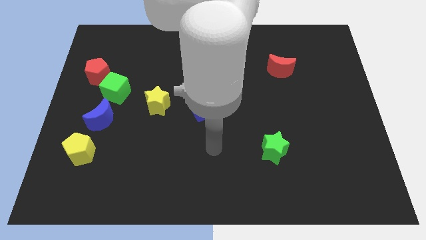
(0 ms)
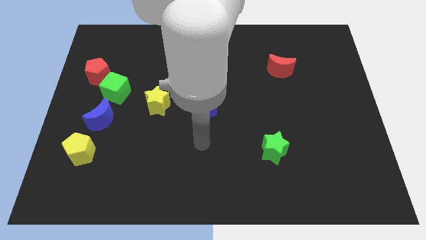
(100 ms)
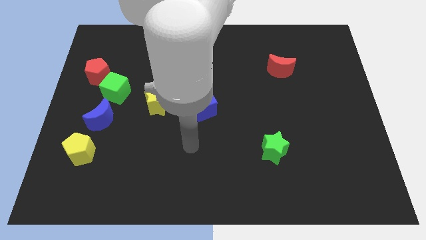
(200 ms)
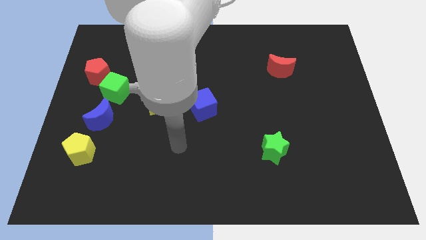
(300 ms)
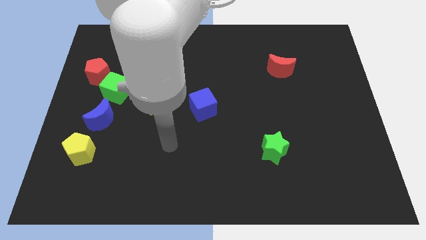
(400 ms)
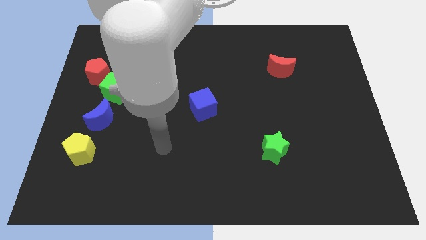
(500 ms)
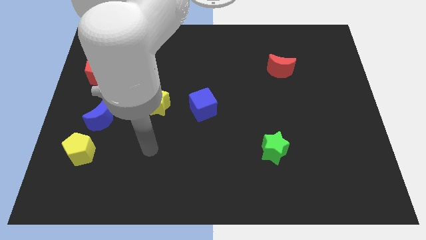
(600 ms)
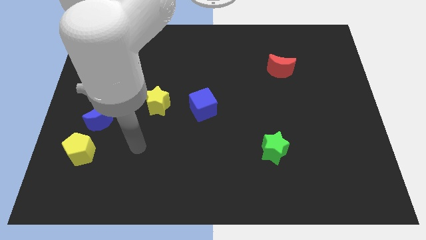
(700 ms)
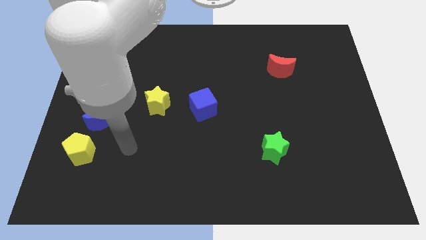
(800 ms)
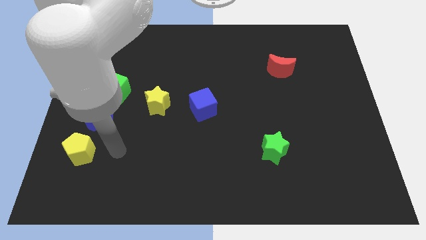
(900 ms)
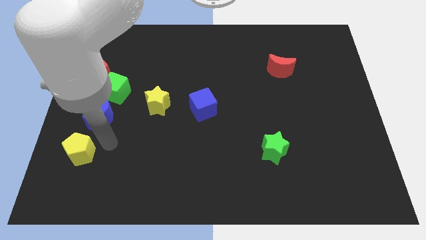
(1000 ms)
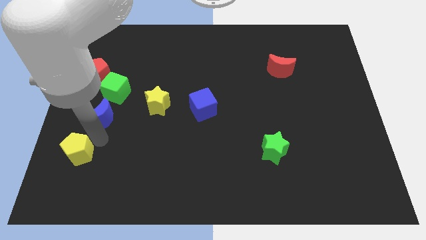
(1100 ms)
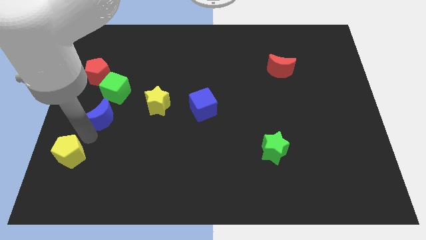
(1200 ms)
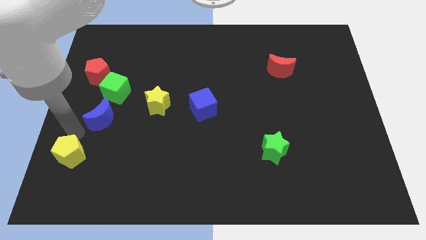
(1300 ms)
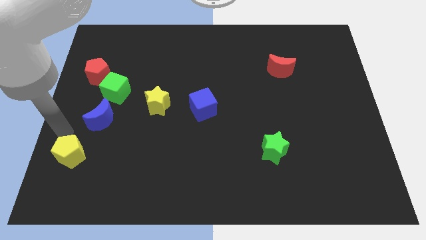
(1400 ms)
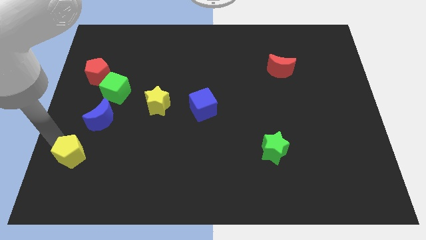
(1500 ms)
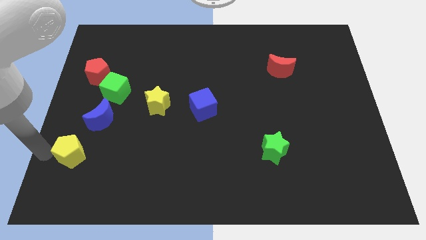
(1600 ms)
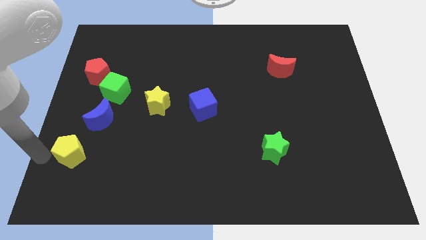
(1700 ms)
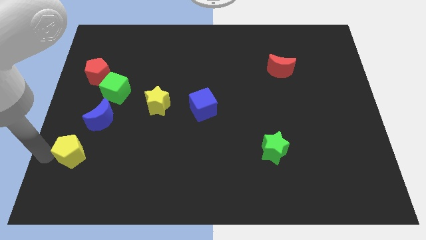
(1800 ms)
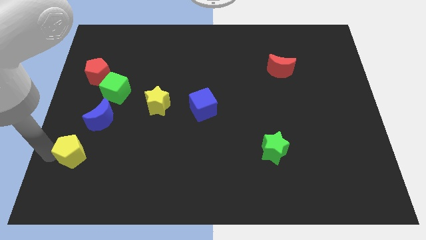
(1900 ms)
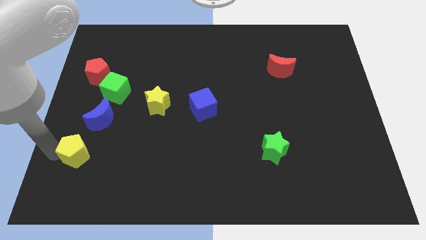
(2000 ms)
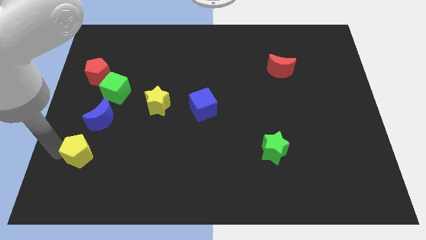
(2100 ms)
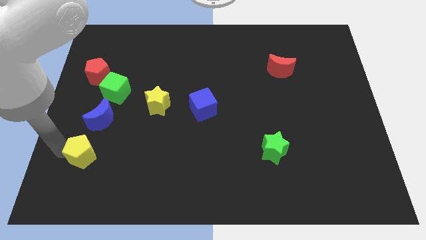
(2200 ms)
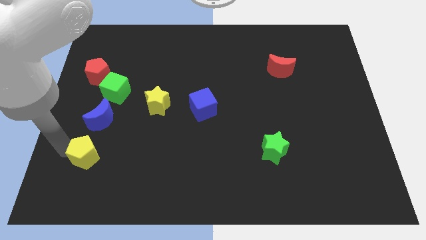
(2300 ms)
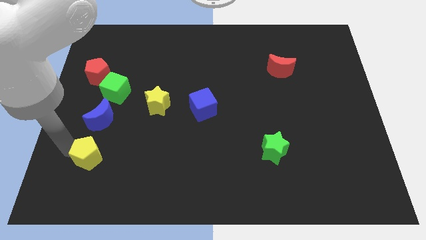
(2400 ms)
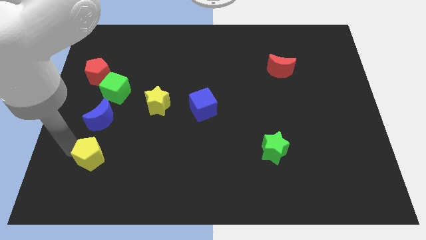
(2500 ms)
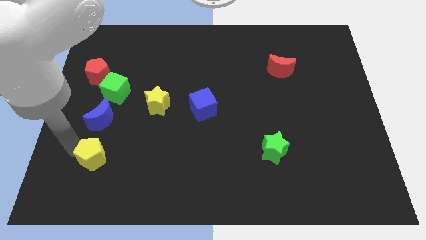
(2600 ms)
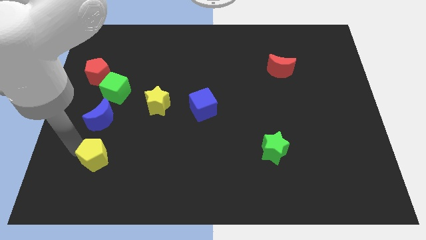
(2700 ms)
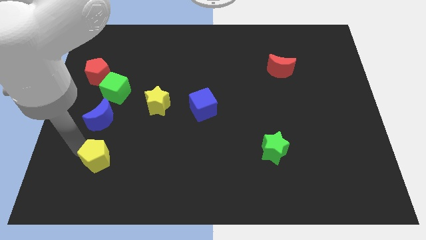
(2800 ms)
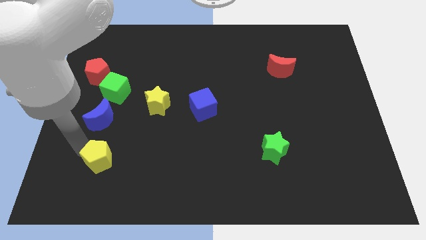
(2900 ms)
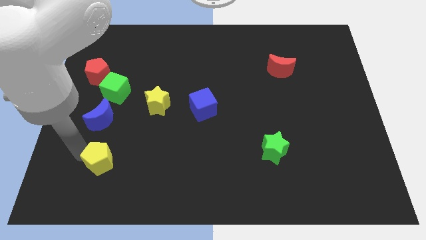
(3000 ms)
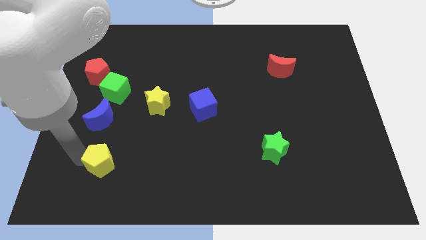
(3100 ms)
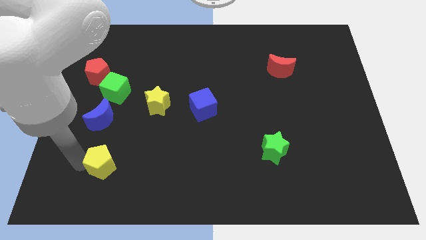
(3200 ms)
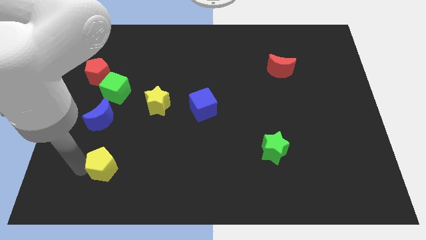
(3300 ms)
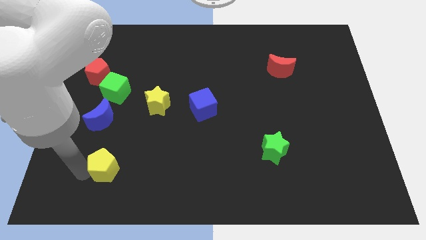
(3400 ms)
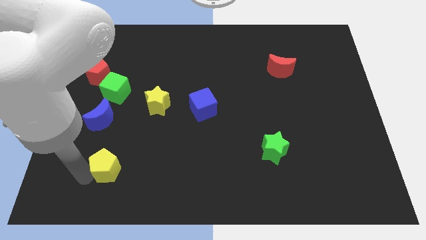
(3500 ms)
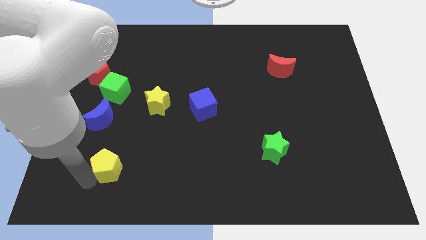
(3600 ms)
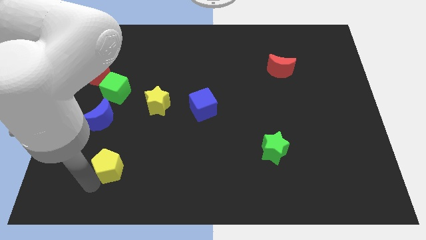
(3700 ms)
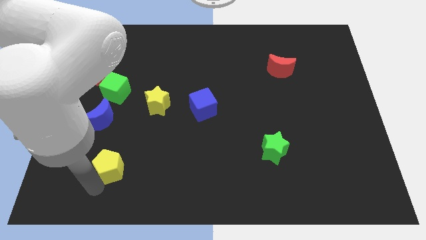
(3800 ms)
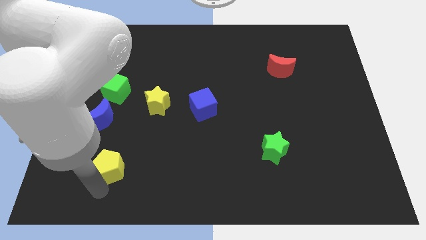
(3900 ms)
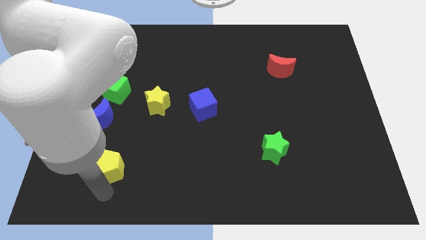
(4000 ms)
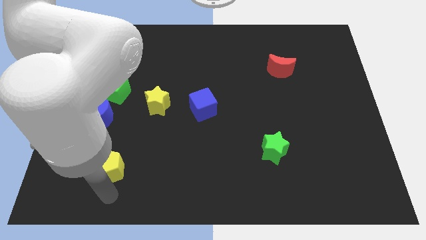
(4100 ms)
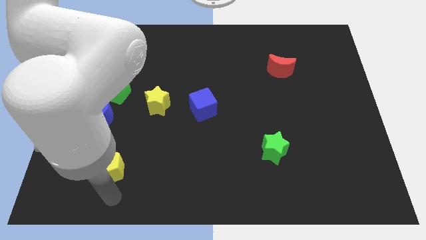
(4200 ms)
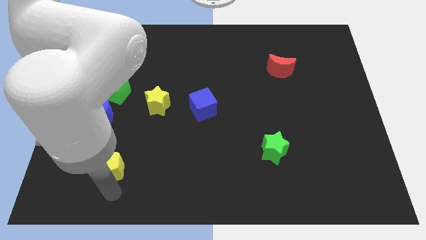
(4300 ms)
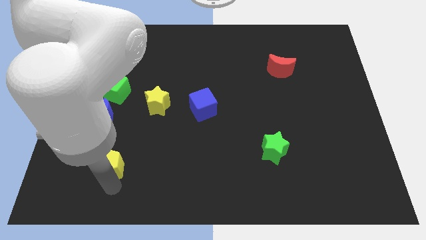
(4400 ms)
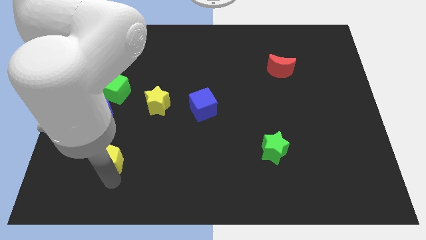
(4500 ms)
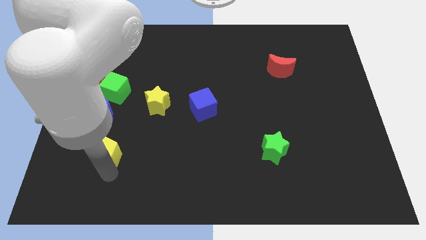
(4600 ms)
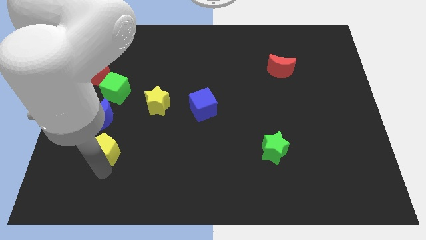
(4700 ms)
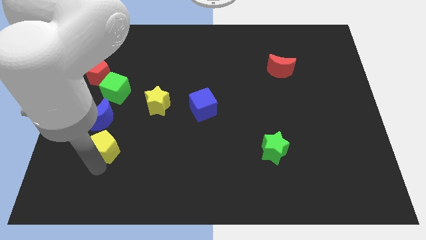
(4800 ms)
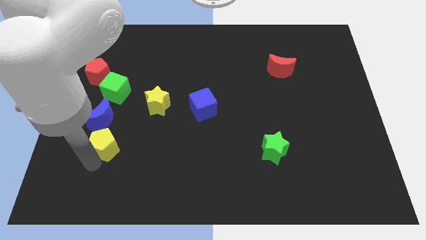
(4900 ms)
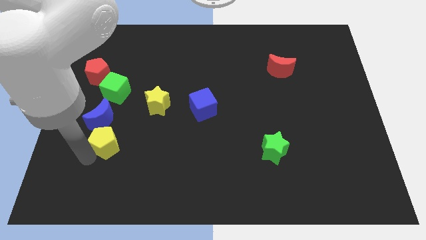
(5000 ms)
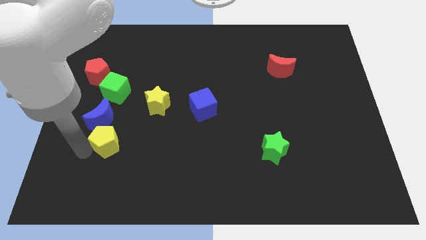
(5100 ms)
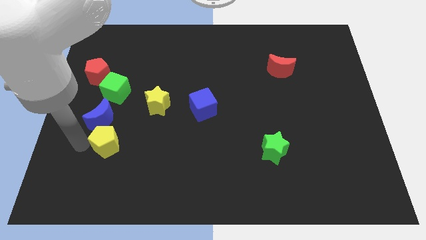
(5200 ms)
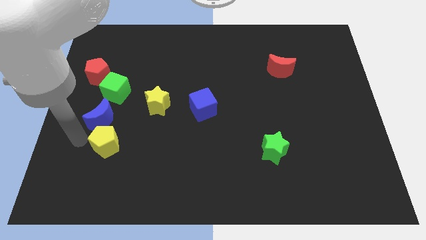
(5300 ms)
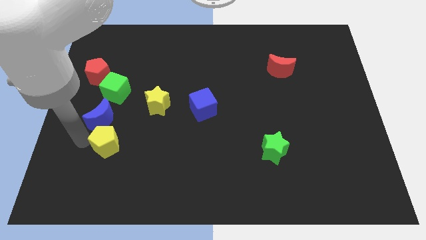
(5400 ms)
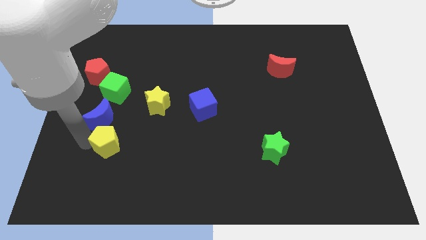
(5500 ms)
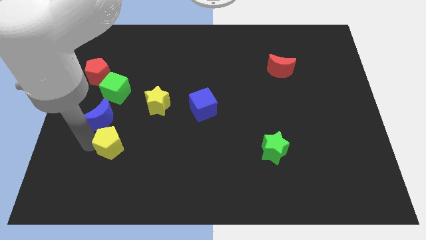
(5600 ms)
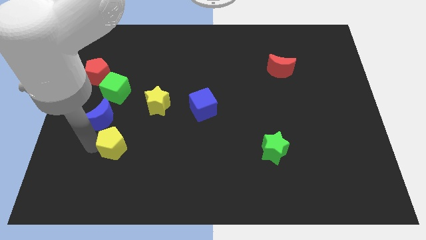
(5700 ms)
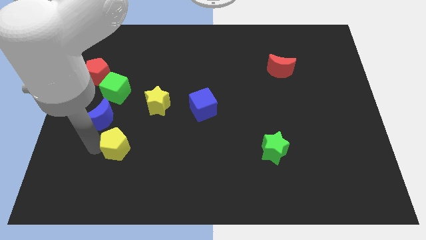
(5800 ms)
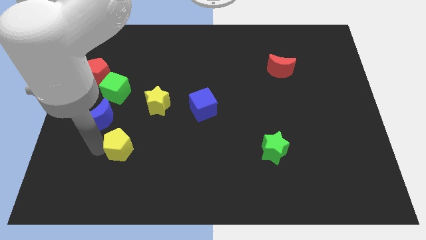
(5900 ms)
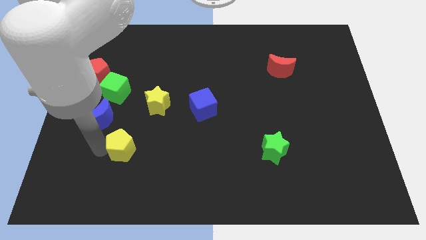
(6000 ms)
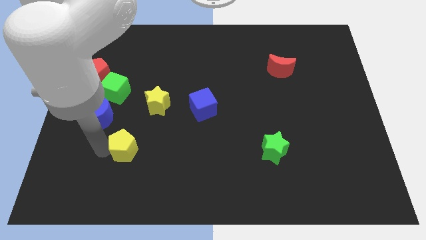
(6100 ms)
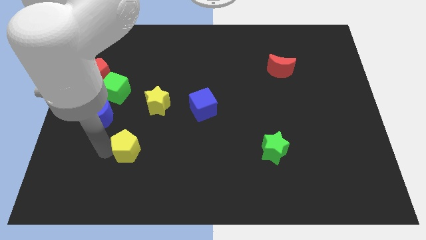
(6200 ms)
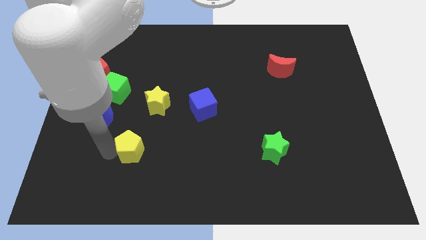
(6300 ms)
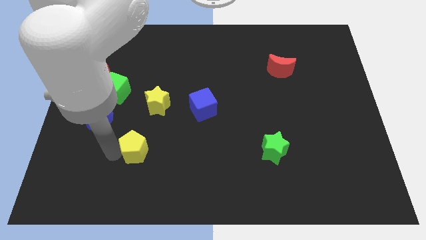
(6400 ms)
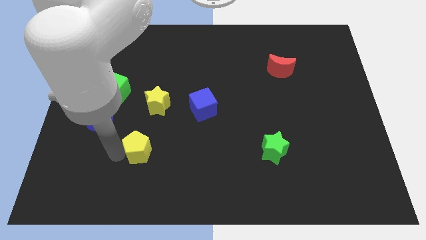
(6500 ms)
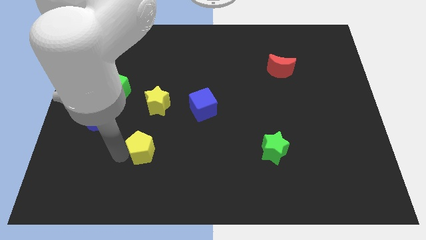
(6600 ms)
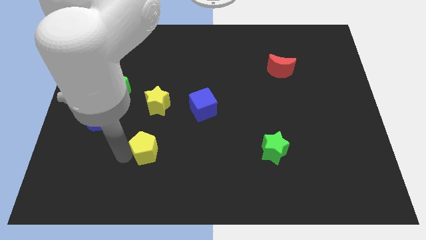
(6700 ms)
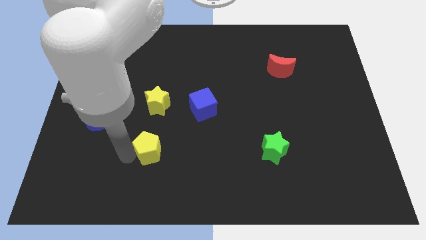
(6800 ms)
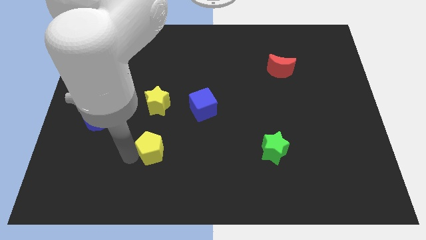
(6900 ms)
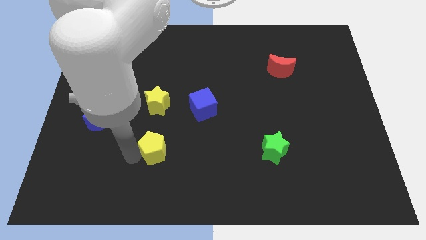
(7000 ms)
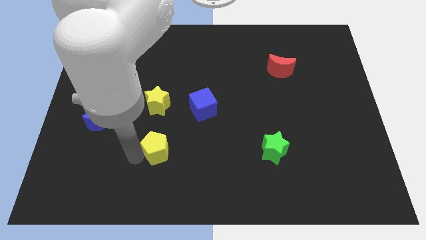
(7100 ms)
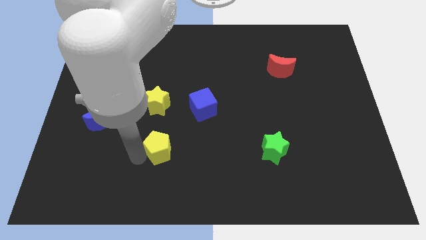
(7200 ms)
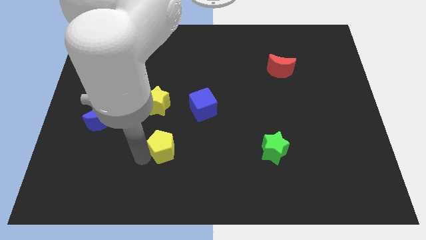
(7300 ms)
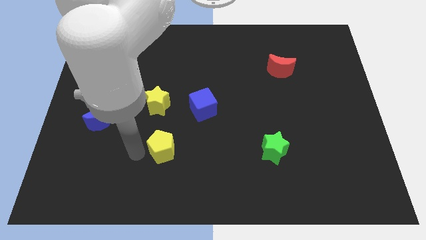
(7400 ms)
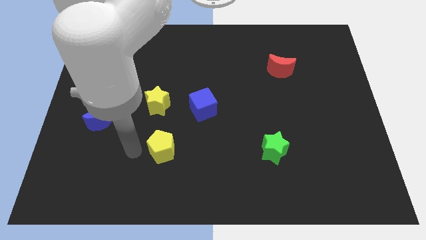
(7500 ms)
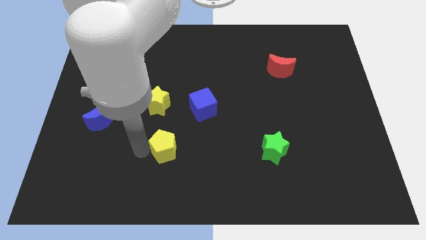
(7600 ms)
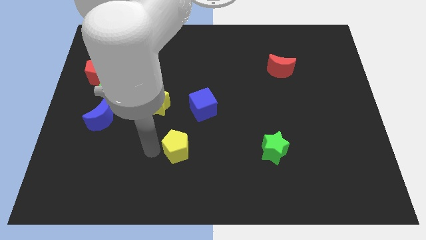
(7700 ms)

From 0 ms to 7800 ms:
push the yellow pentagon right

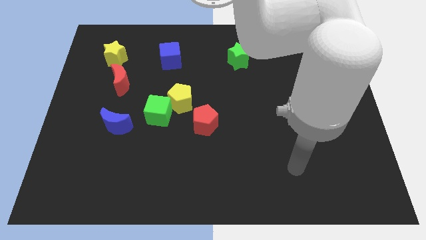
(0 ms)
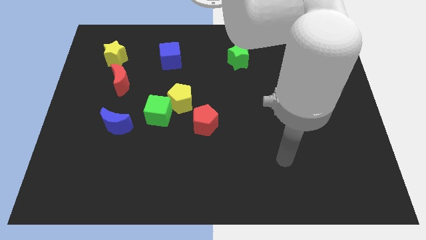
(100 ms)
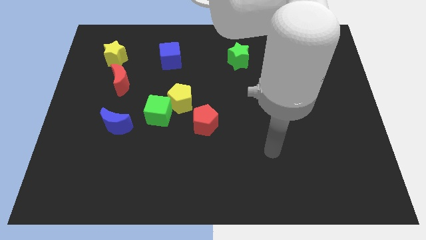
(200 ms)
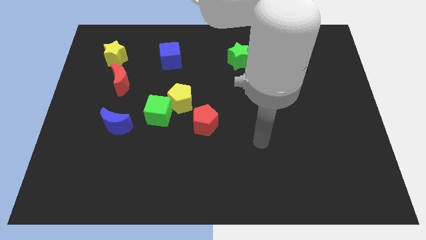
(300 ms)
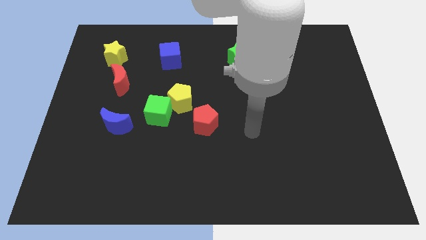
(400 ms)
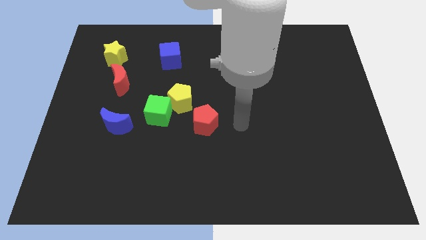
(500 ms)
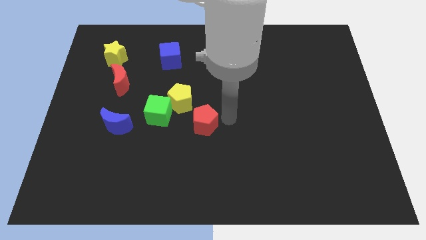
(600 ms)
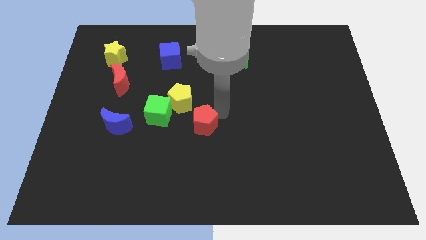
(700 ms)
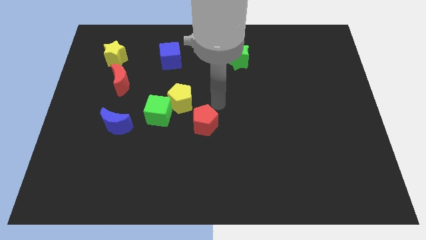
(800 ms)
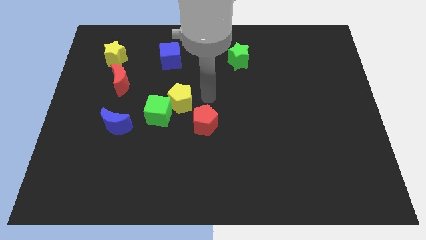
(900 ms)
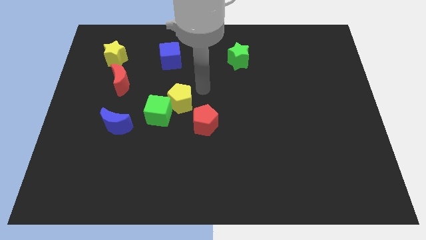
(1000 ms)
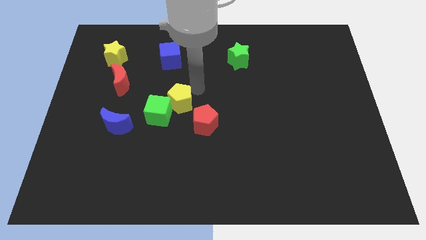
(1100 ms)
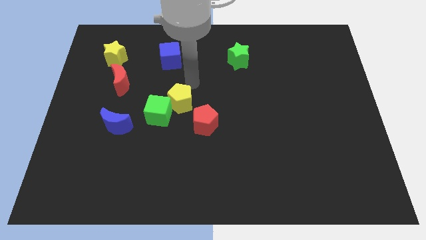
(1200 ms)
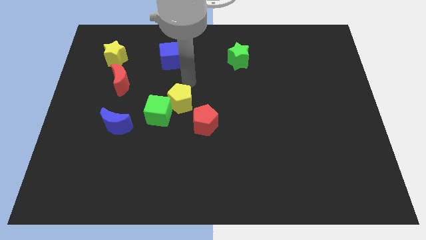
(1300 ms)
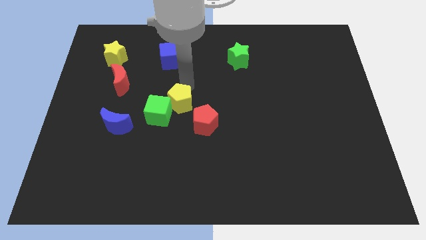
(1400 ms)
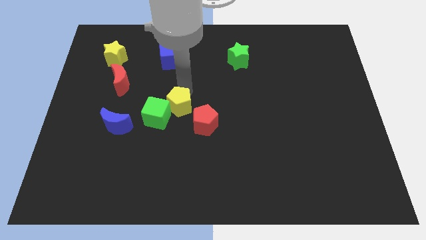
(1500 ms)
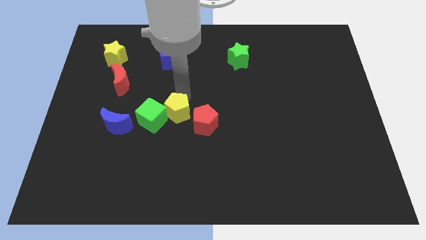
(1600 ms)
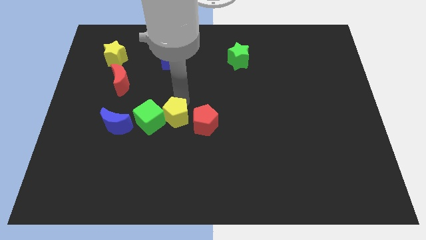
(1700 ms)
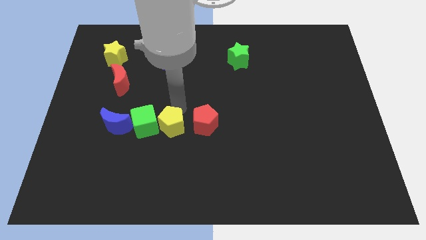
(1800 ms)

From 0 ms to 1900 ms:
slide the yellow pentagon a little bit downwards
